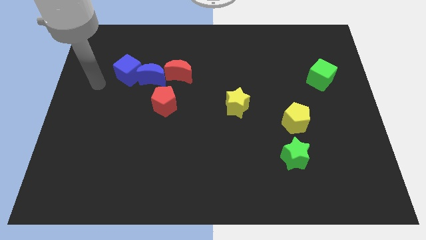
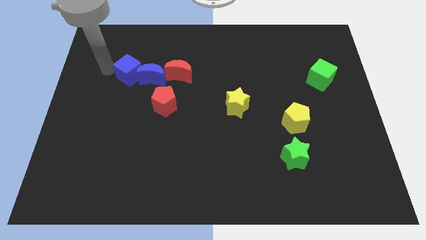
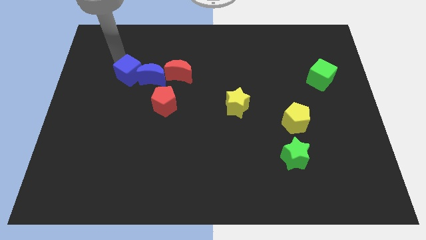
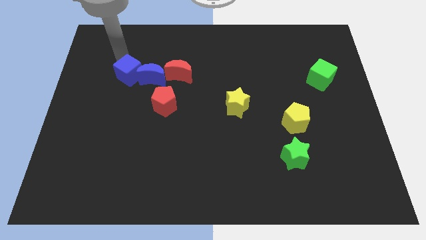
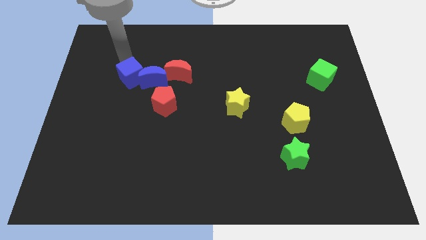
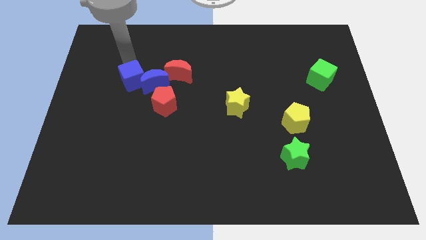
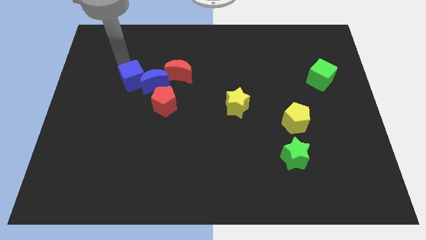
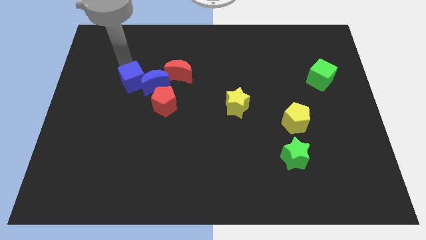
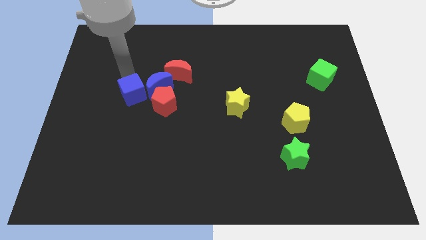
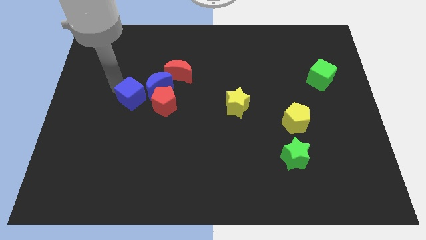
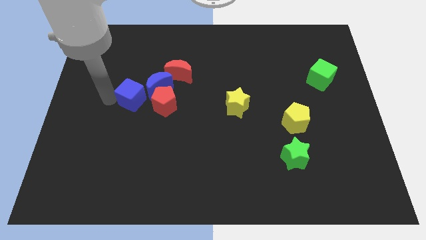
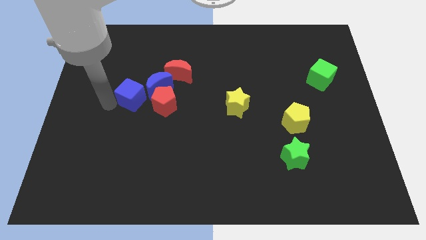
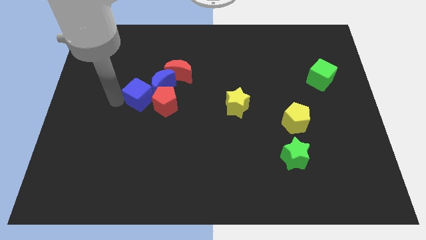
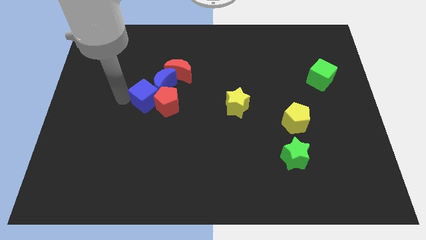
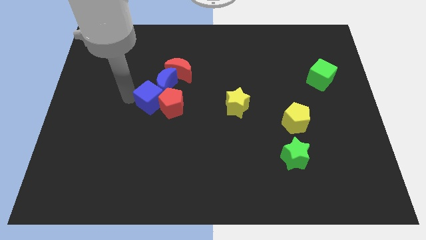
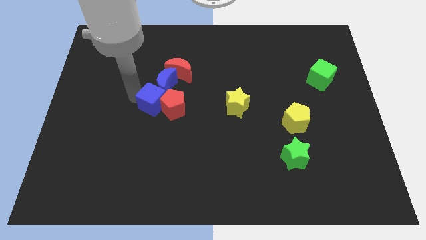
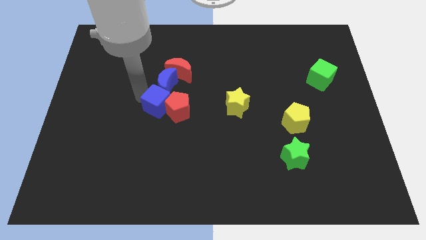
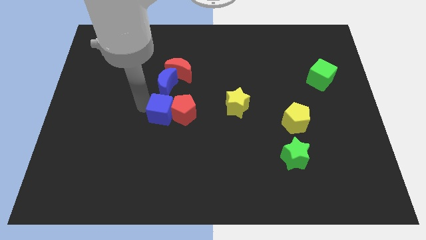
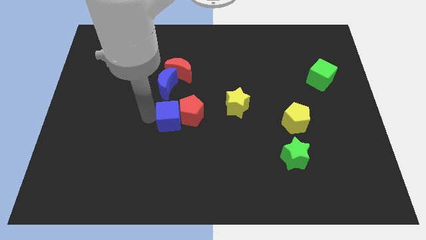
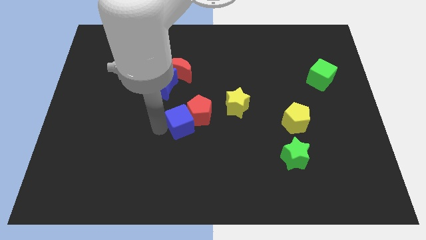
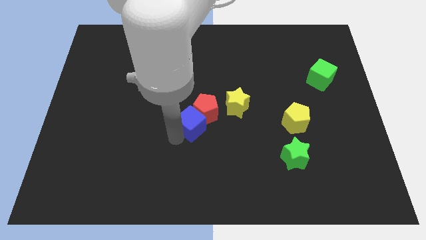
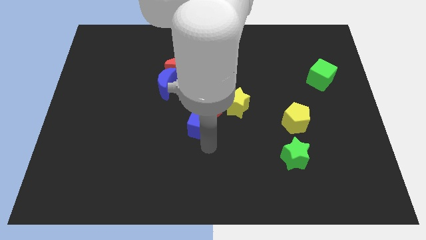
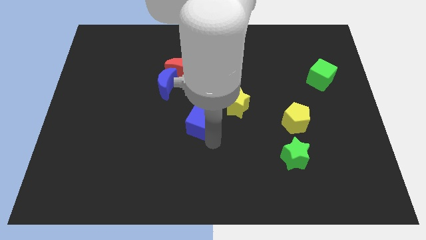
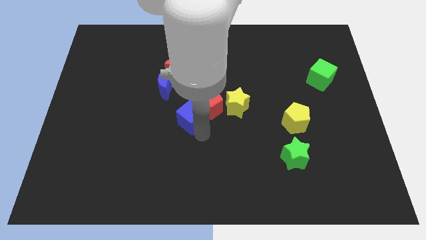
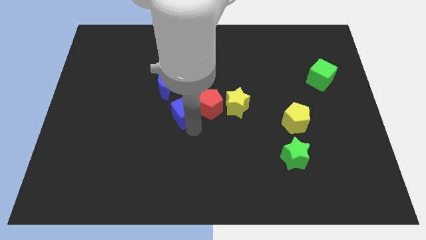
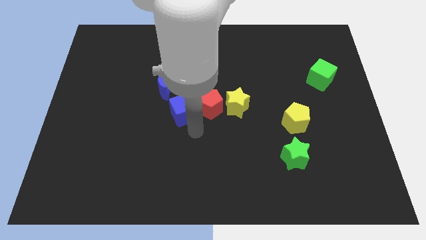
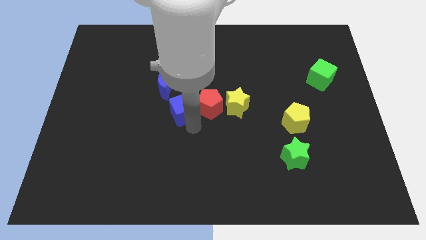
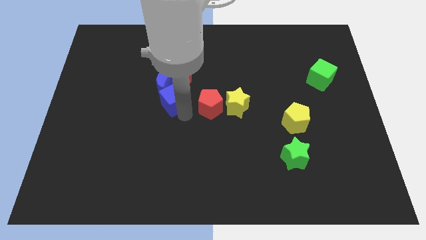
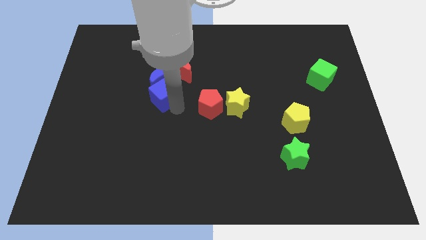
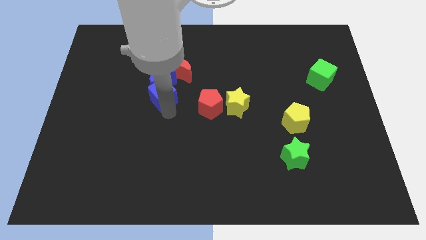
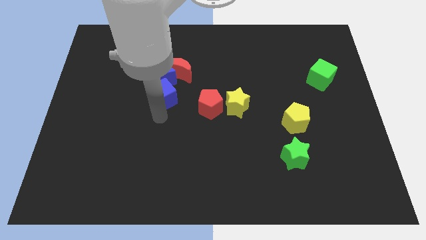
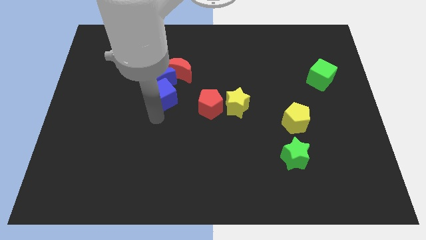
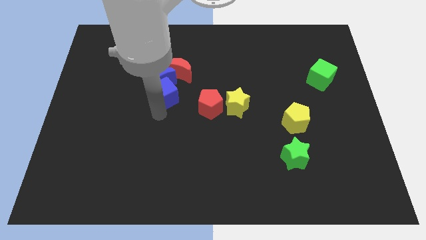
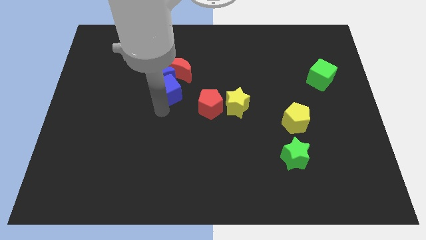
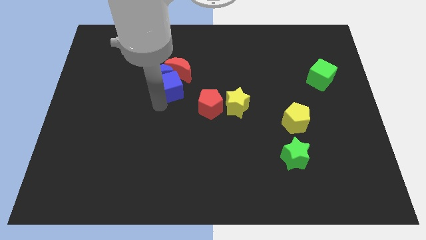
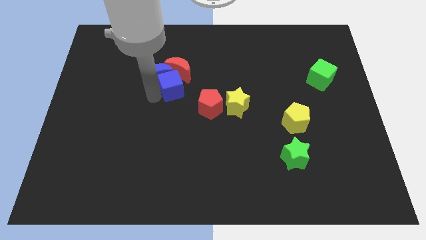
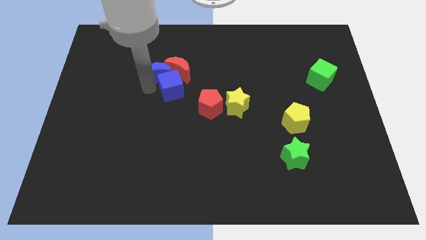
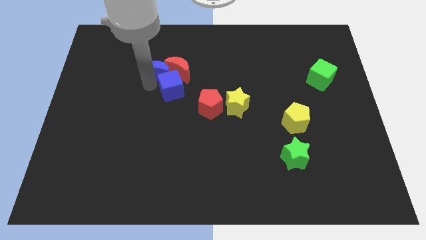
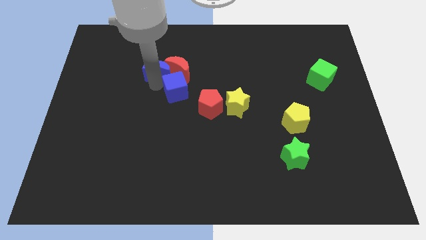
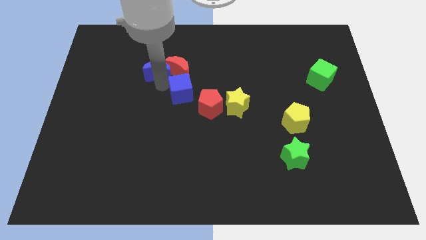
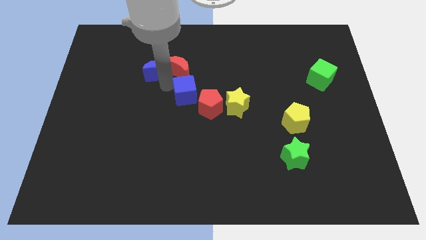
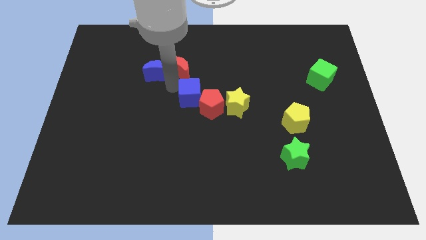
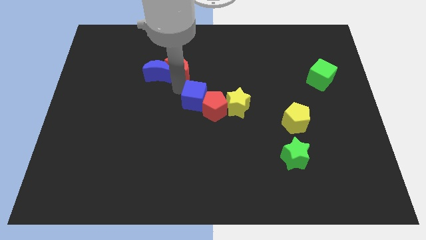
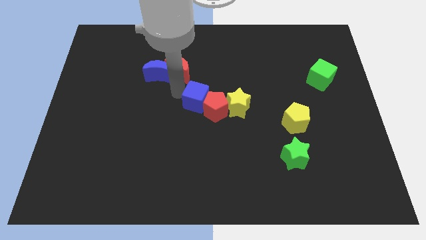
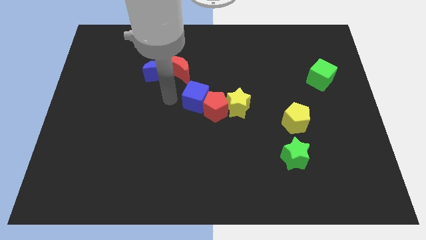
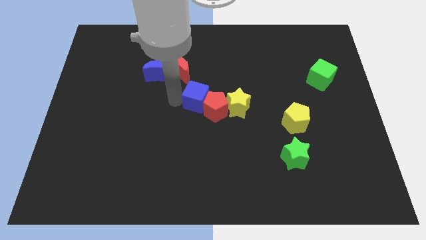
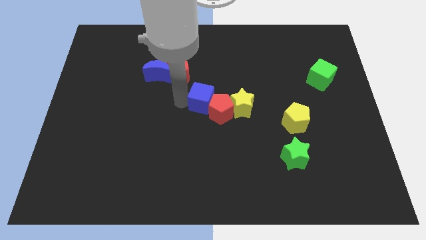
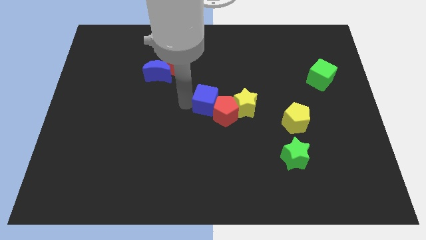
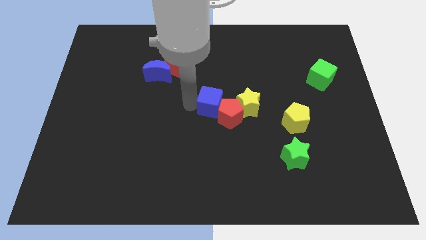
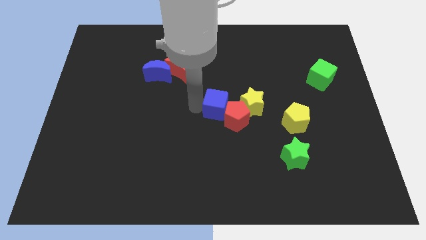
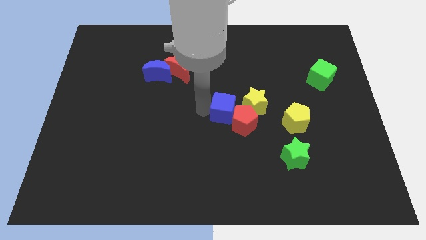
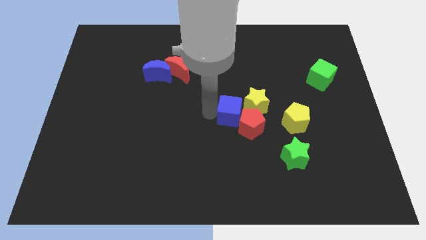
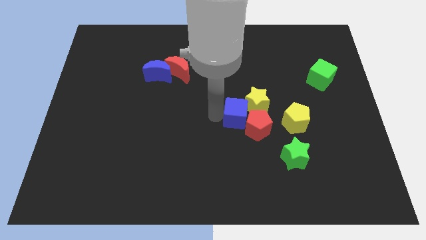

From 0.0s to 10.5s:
push the blue cube to the yellow star

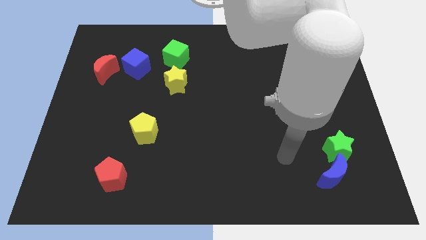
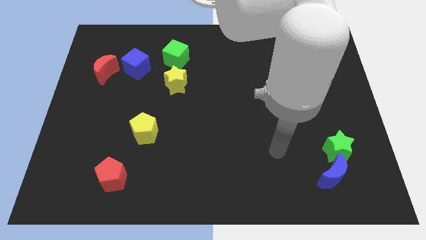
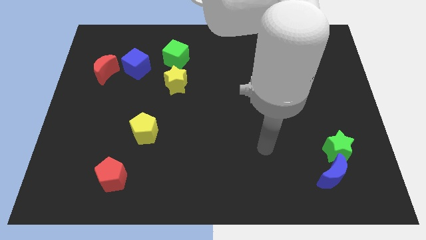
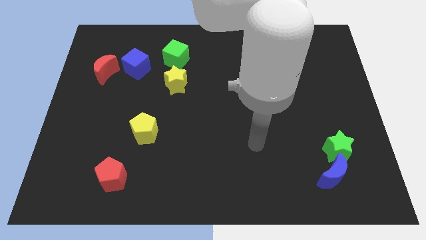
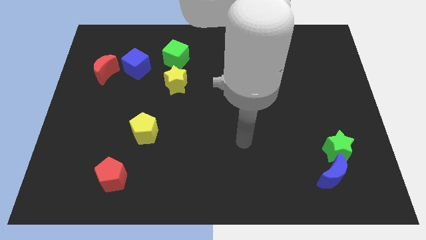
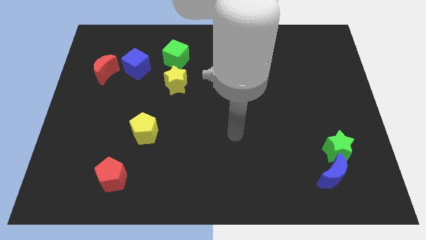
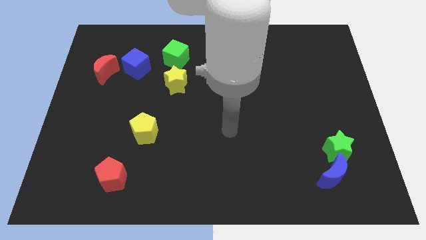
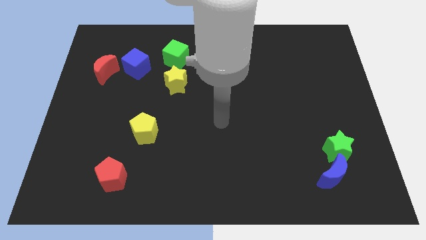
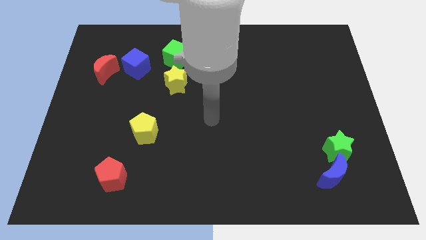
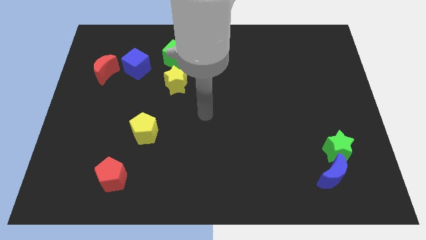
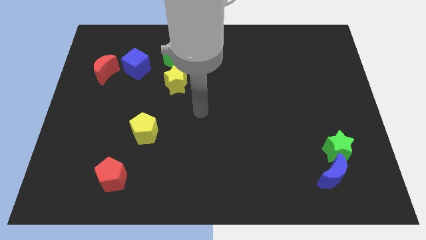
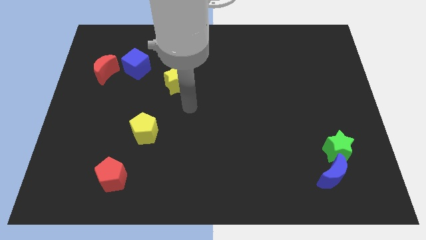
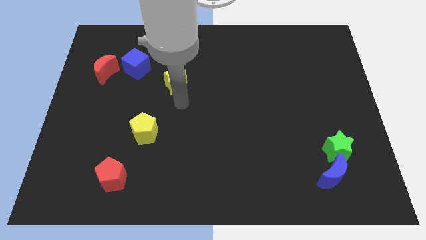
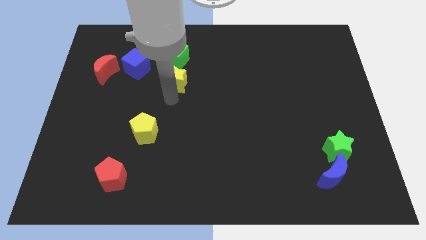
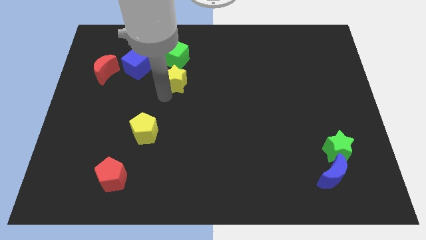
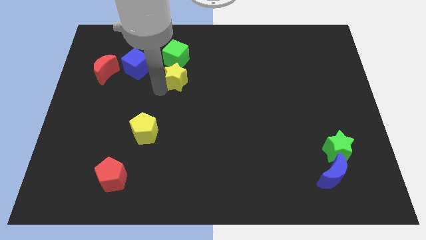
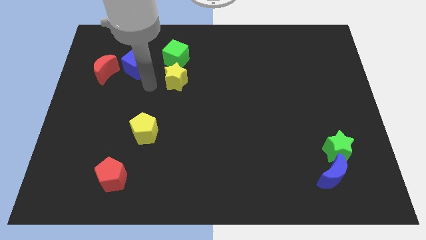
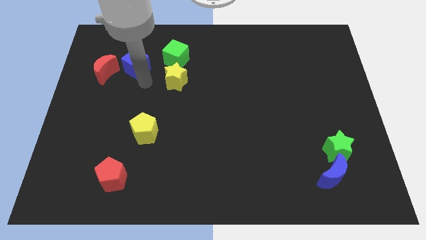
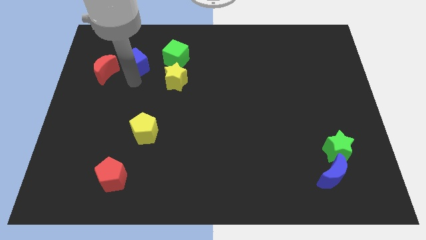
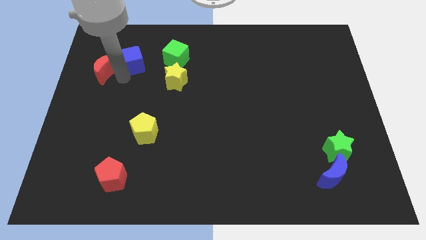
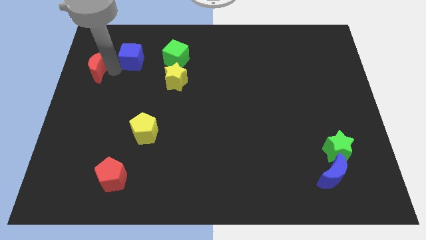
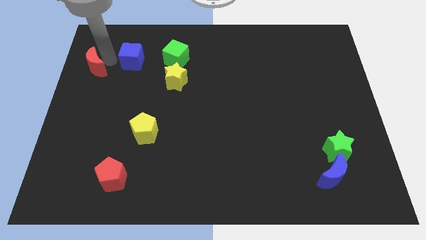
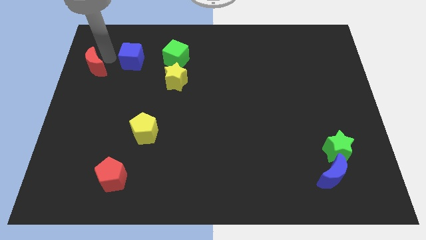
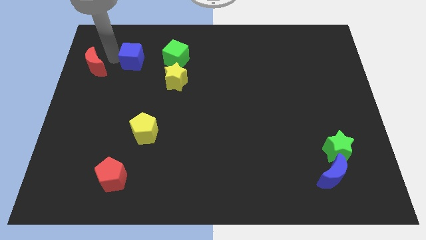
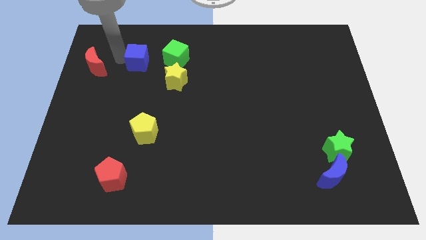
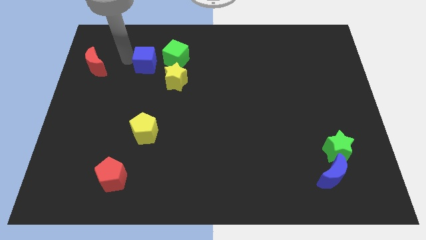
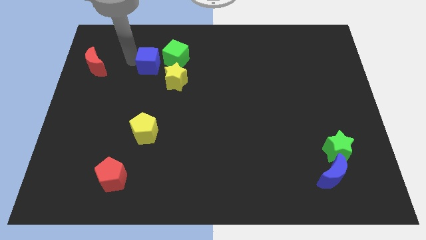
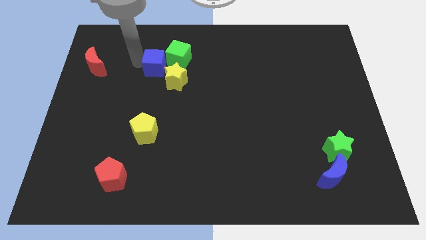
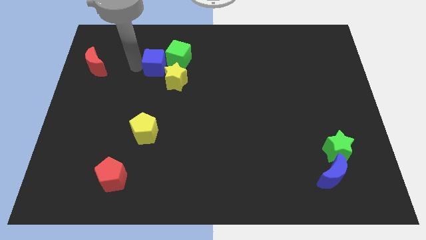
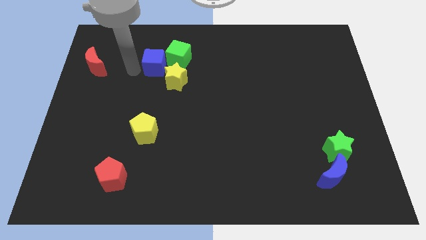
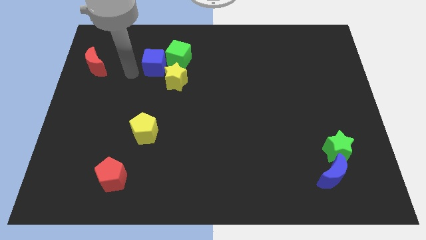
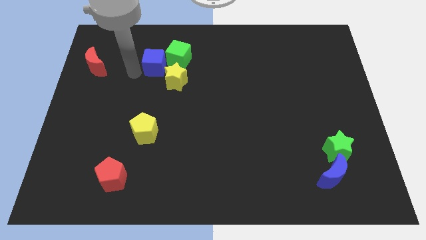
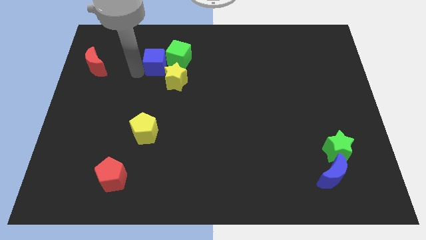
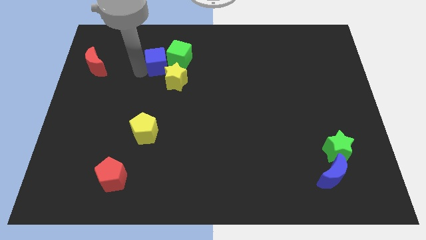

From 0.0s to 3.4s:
slide the blue cube next to the green cube
